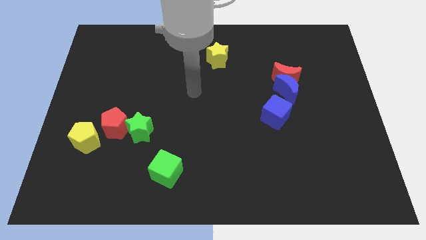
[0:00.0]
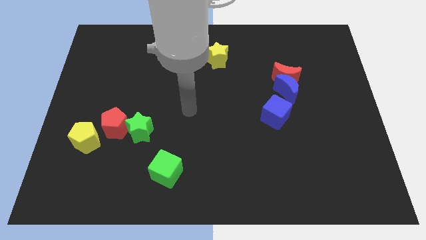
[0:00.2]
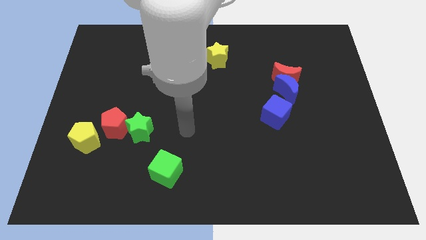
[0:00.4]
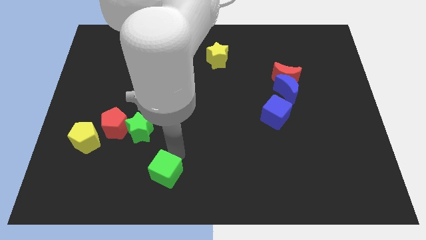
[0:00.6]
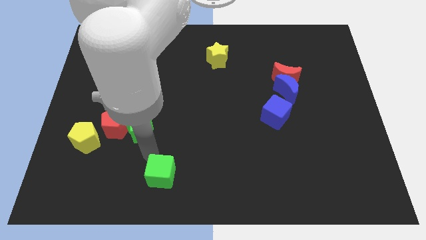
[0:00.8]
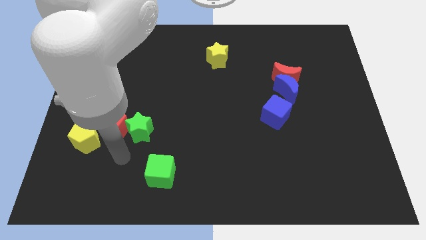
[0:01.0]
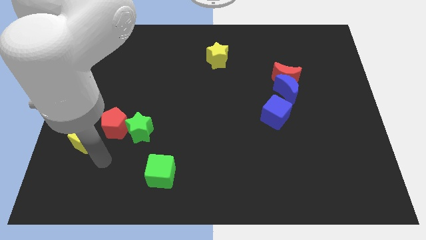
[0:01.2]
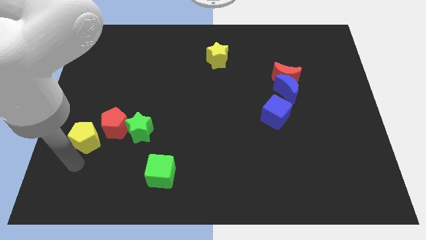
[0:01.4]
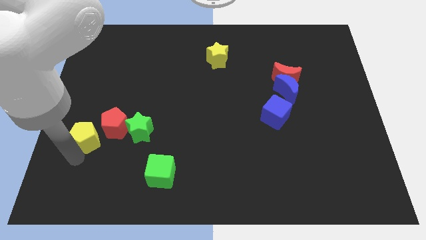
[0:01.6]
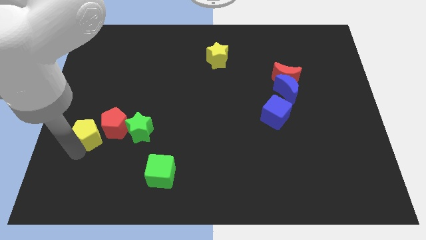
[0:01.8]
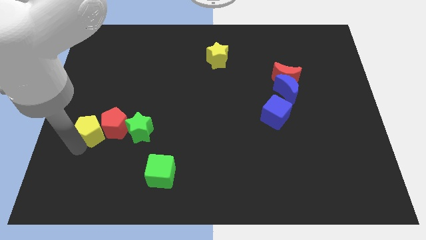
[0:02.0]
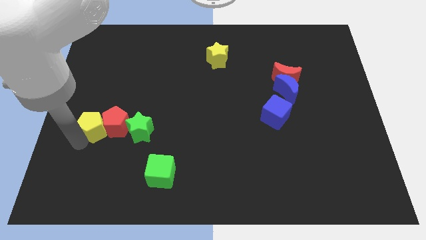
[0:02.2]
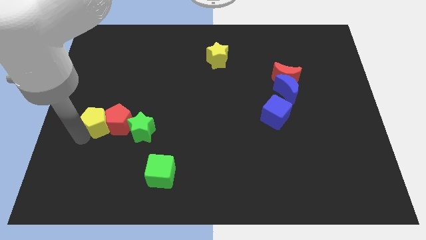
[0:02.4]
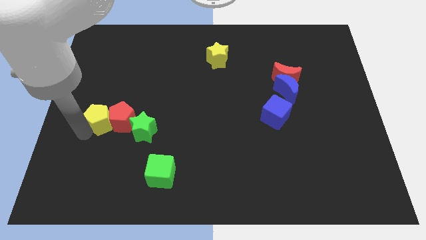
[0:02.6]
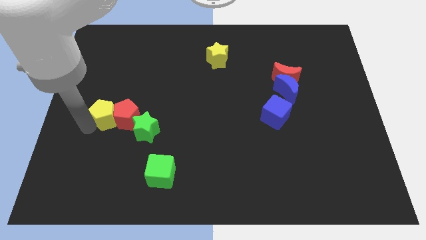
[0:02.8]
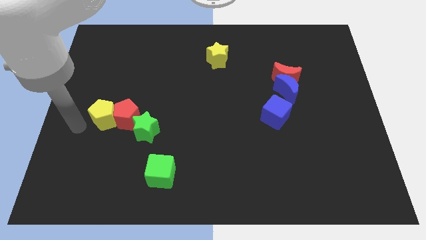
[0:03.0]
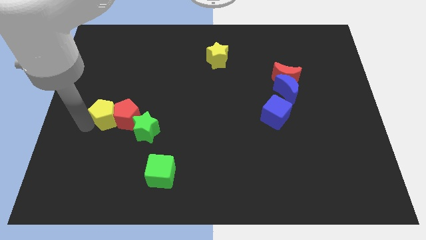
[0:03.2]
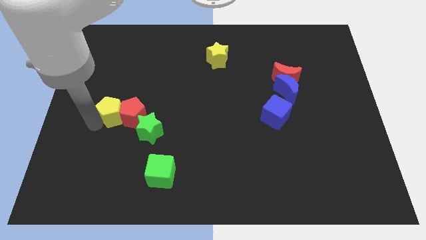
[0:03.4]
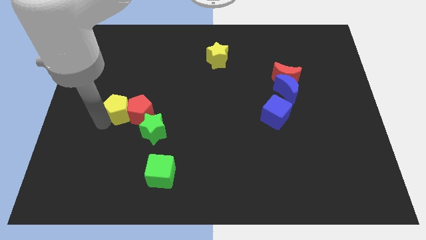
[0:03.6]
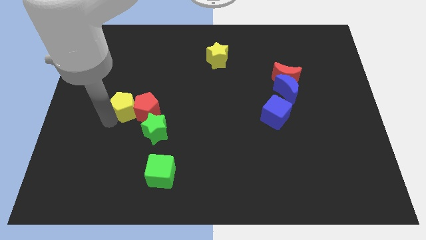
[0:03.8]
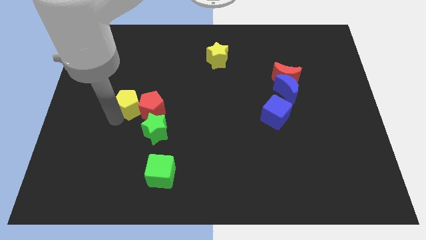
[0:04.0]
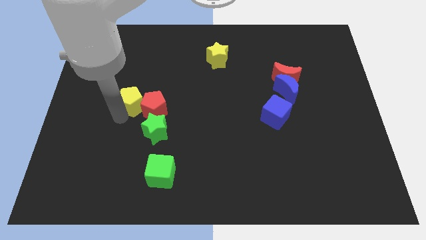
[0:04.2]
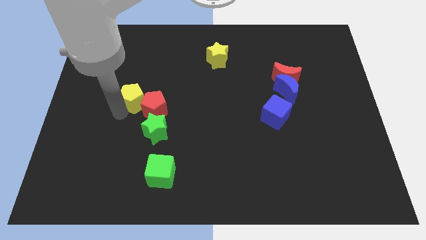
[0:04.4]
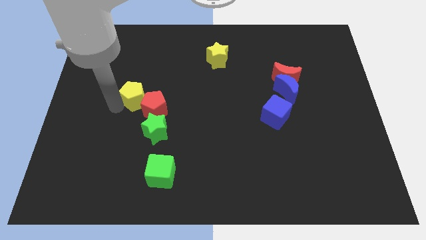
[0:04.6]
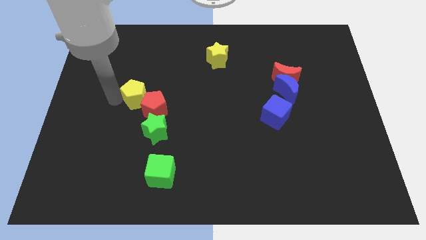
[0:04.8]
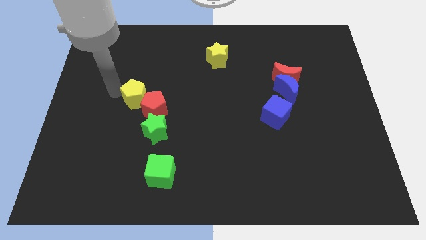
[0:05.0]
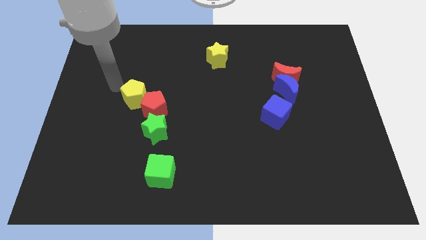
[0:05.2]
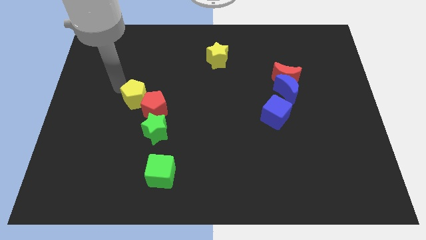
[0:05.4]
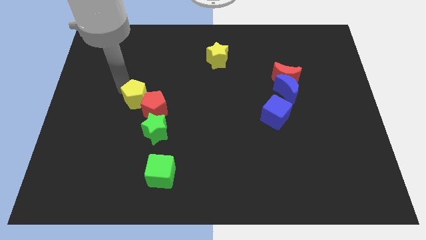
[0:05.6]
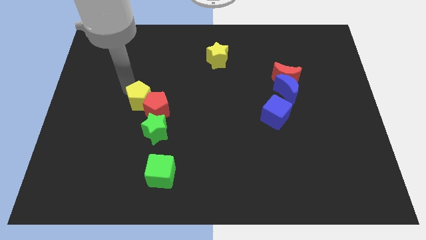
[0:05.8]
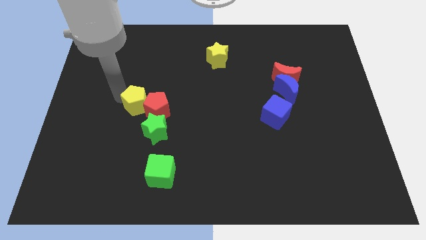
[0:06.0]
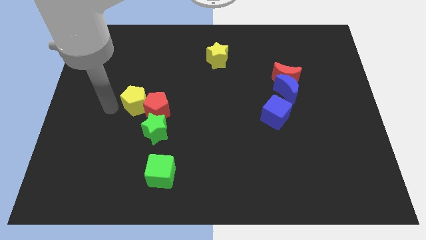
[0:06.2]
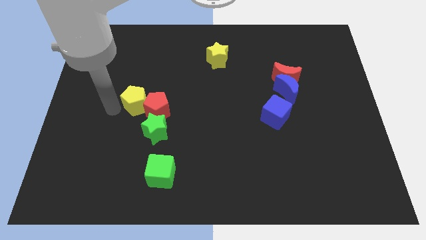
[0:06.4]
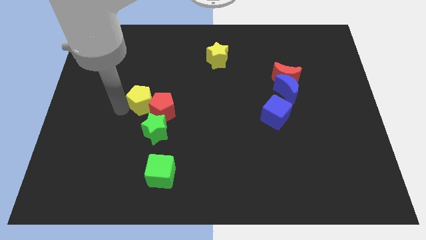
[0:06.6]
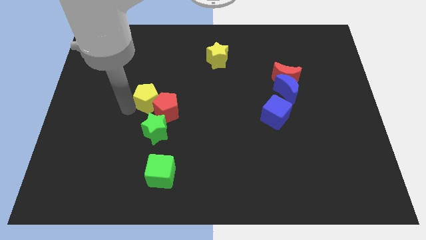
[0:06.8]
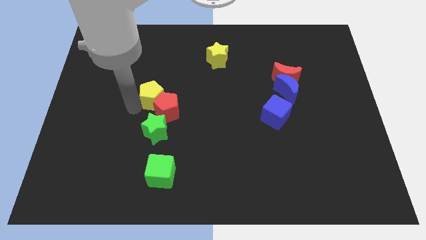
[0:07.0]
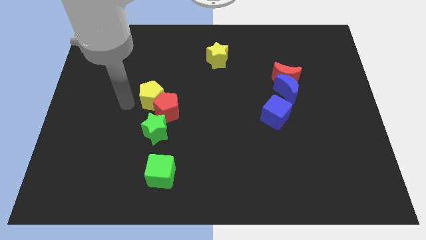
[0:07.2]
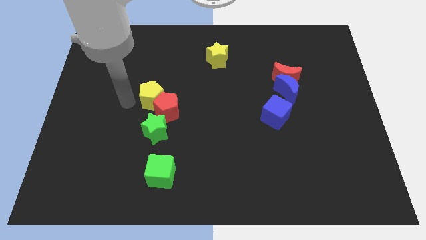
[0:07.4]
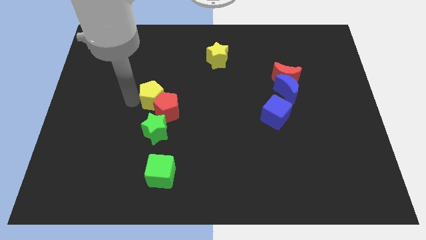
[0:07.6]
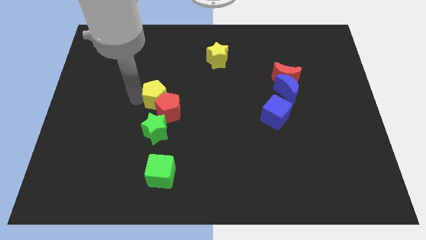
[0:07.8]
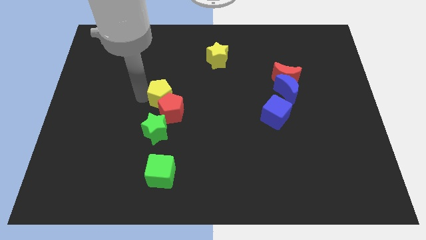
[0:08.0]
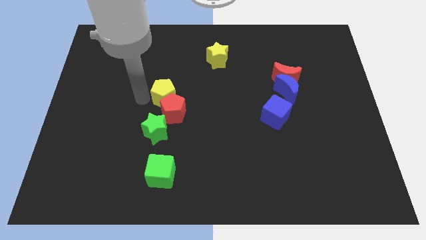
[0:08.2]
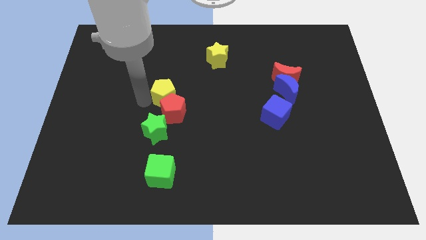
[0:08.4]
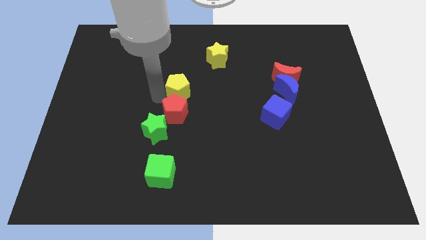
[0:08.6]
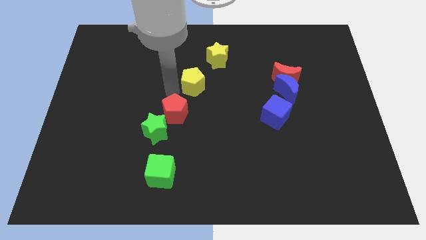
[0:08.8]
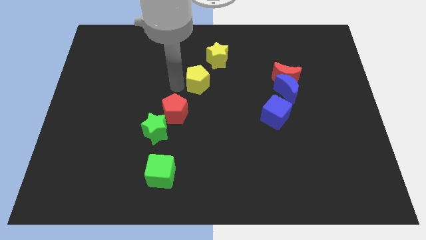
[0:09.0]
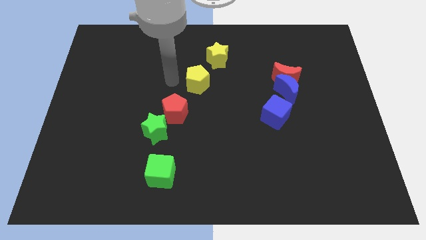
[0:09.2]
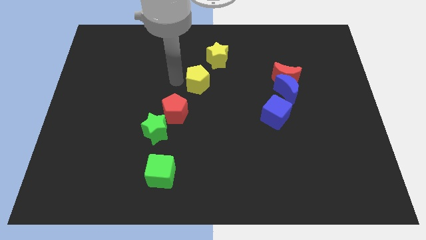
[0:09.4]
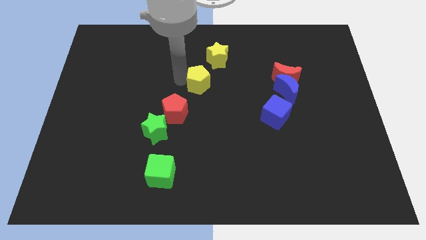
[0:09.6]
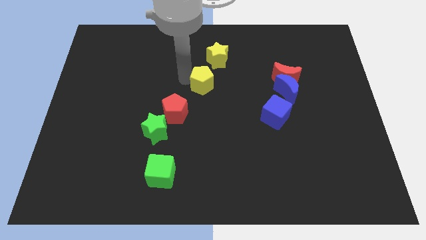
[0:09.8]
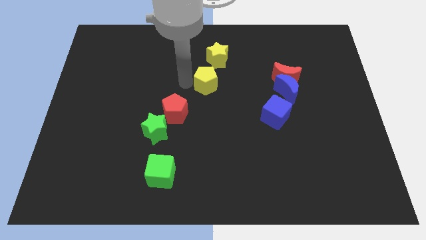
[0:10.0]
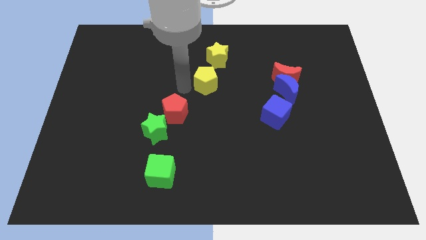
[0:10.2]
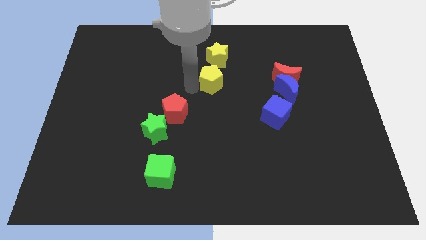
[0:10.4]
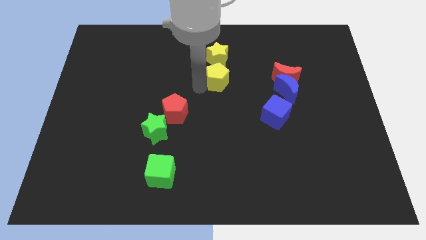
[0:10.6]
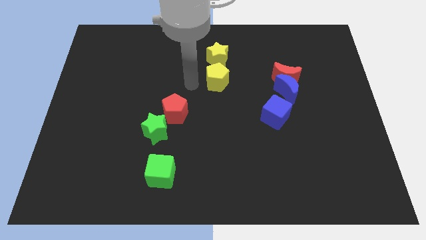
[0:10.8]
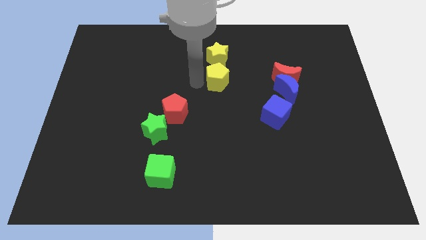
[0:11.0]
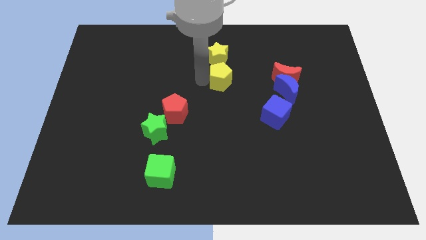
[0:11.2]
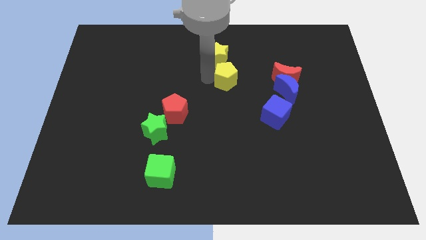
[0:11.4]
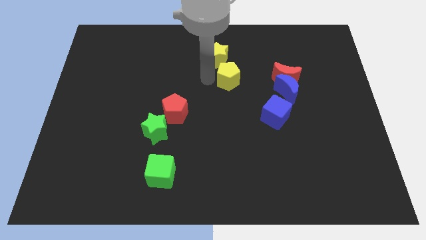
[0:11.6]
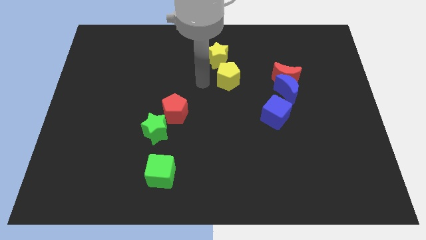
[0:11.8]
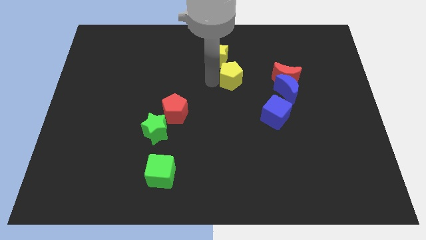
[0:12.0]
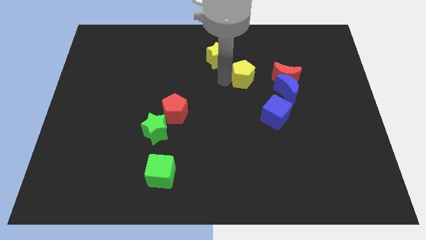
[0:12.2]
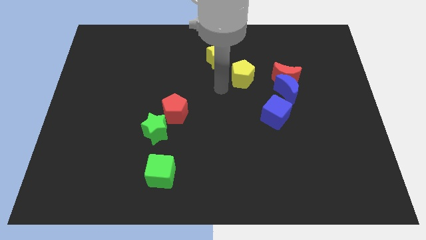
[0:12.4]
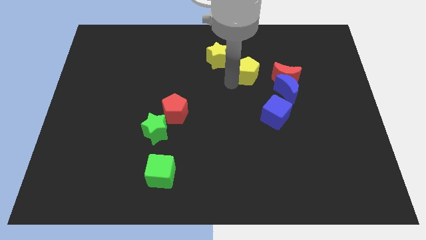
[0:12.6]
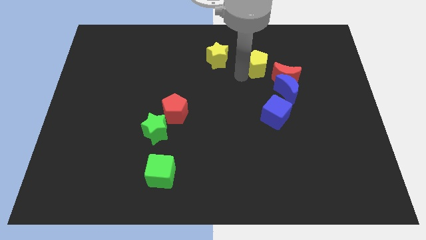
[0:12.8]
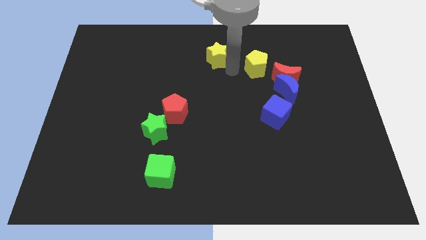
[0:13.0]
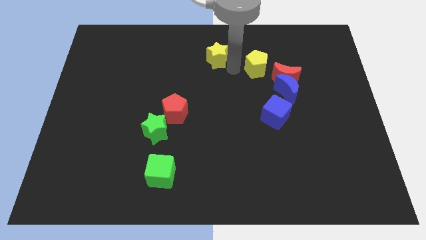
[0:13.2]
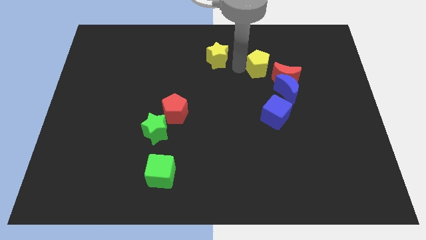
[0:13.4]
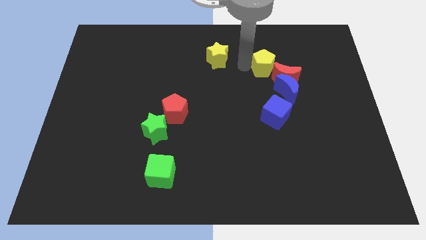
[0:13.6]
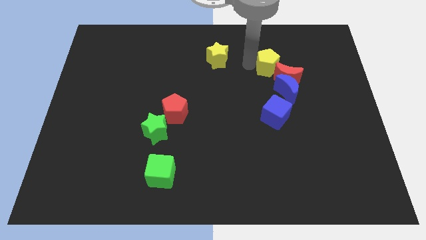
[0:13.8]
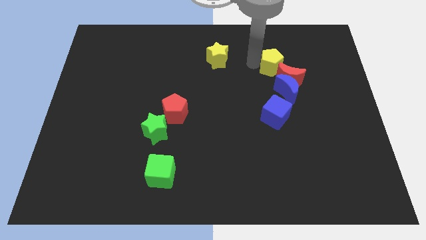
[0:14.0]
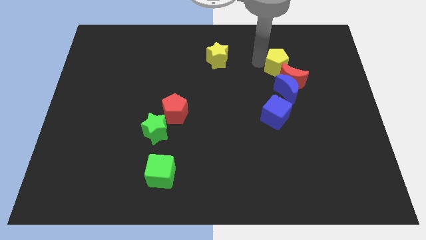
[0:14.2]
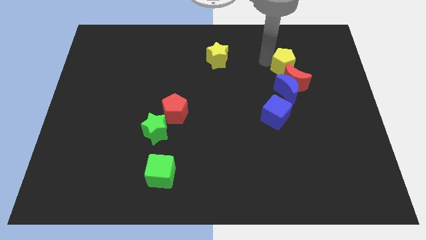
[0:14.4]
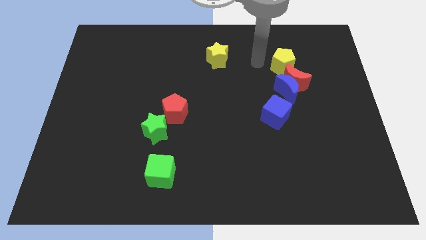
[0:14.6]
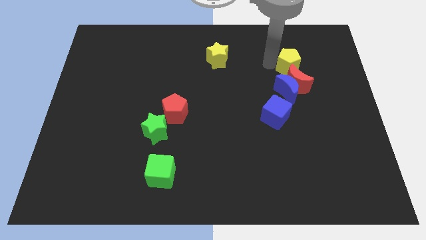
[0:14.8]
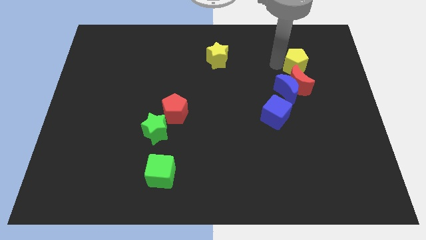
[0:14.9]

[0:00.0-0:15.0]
push the yellow pentagon diagonally up and to the right of the red moon
